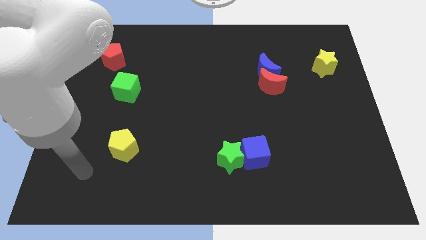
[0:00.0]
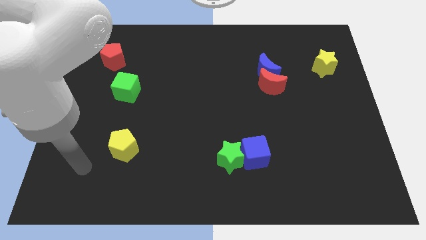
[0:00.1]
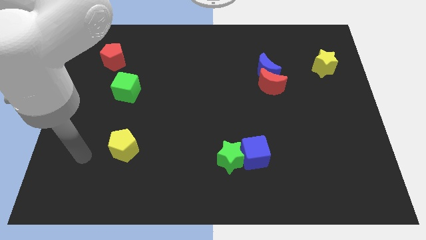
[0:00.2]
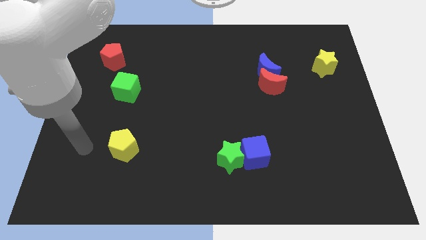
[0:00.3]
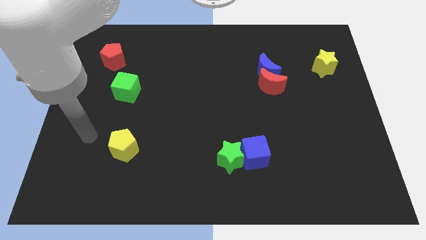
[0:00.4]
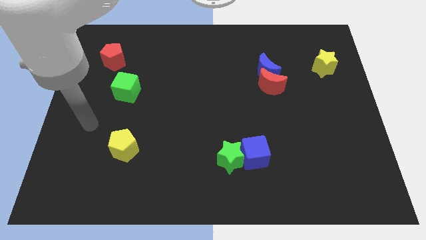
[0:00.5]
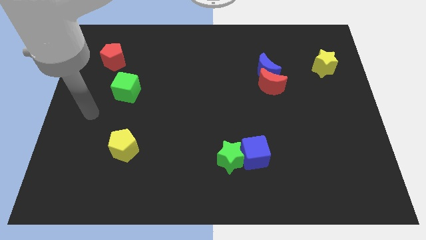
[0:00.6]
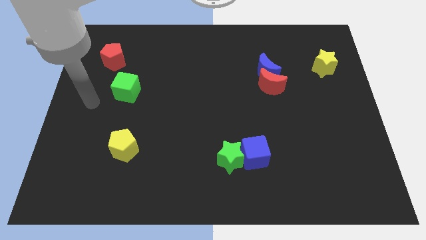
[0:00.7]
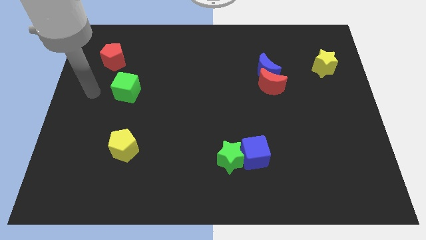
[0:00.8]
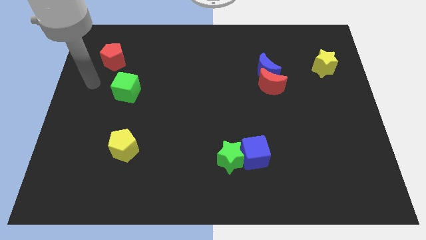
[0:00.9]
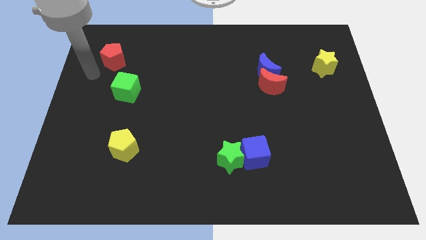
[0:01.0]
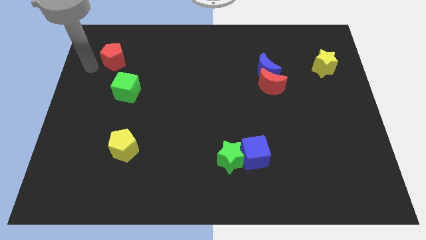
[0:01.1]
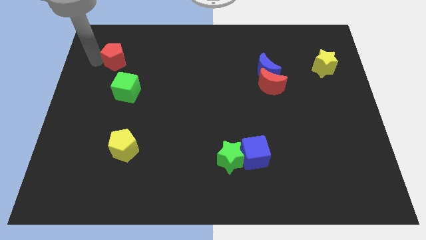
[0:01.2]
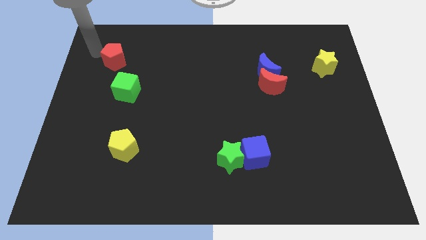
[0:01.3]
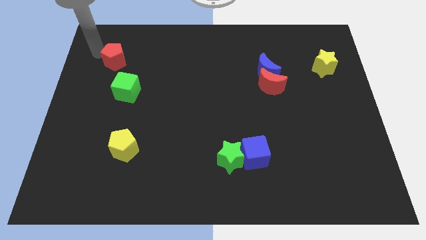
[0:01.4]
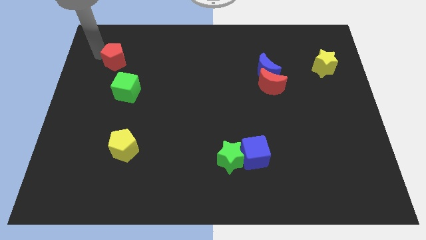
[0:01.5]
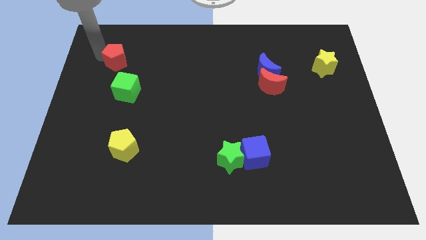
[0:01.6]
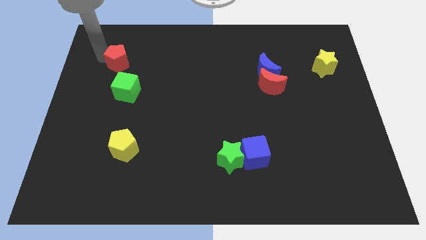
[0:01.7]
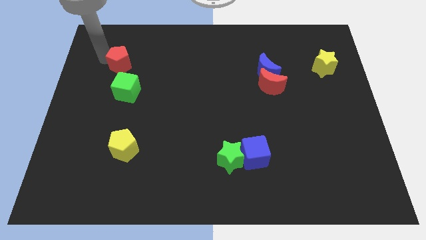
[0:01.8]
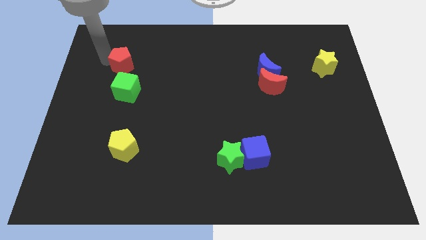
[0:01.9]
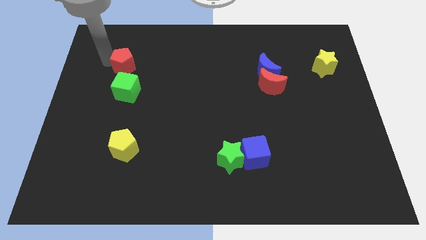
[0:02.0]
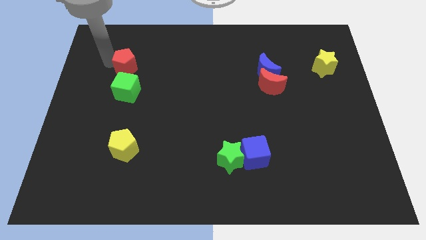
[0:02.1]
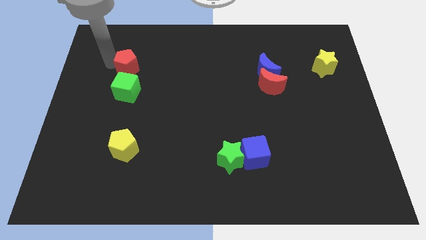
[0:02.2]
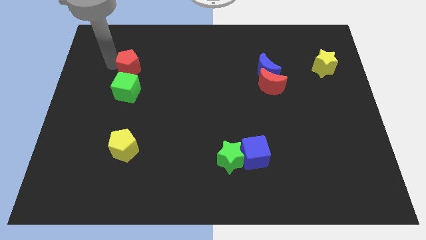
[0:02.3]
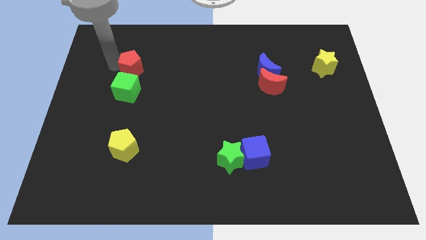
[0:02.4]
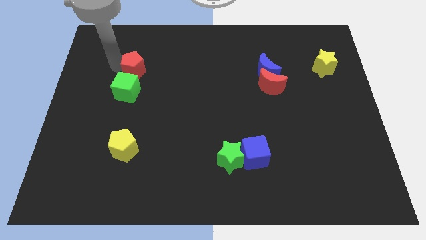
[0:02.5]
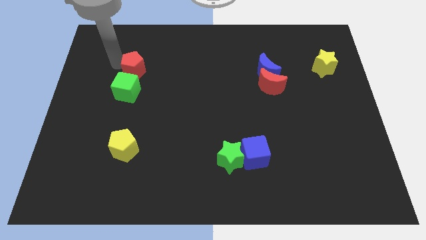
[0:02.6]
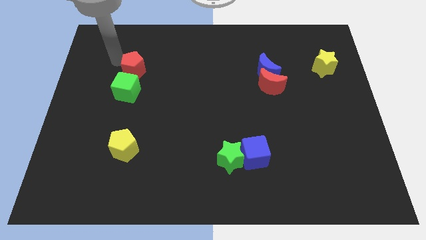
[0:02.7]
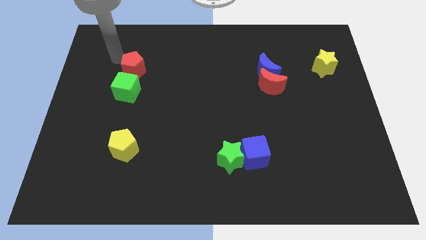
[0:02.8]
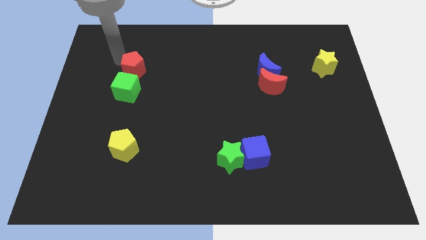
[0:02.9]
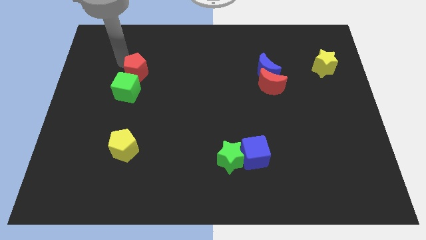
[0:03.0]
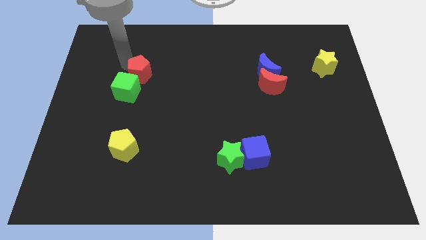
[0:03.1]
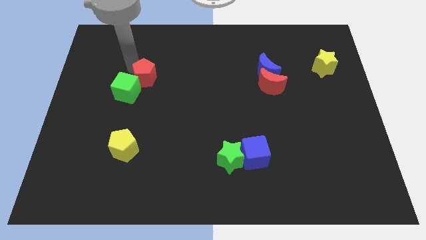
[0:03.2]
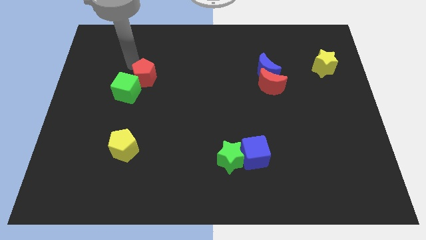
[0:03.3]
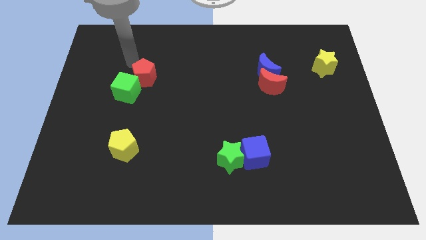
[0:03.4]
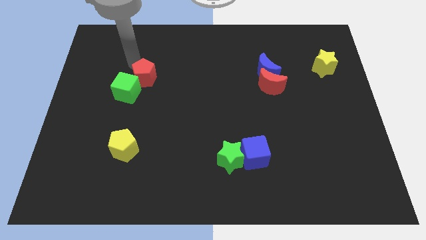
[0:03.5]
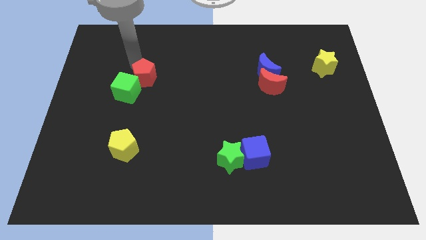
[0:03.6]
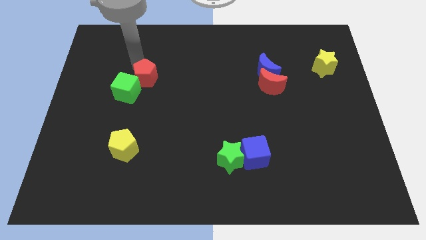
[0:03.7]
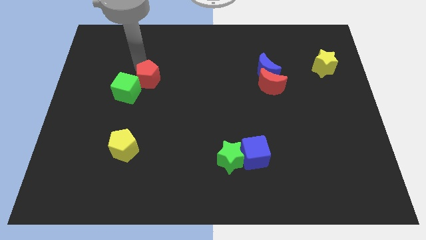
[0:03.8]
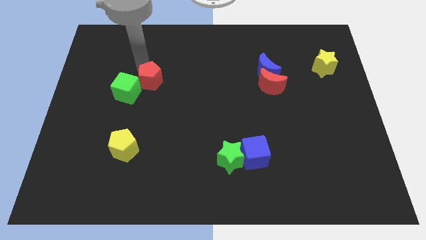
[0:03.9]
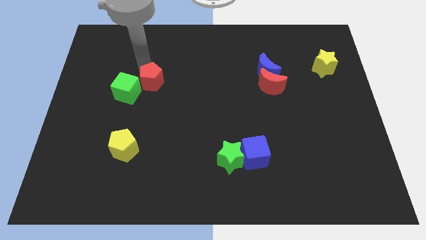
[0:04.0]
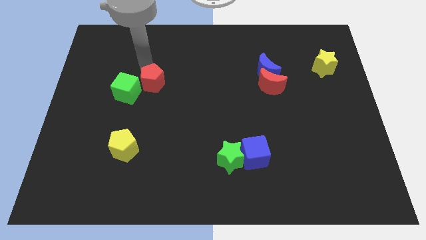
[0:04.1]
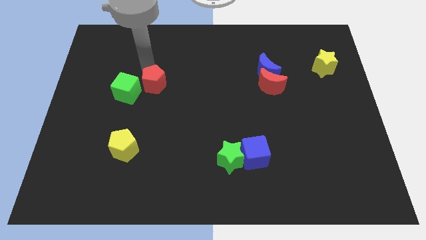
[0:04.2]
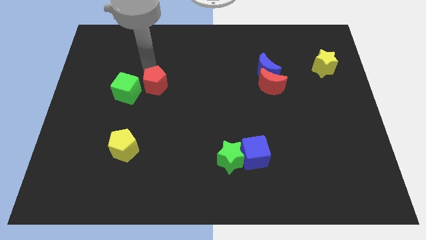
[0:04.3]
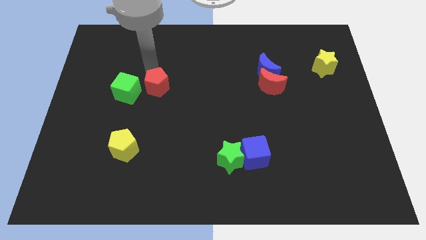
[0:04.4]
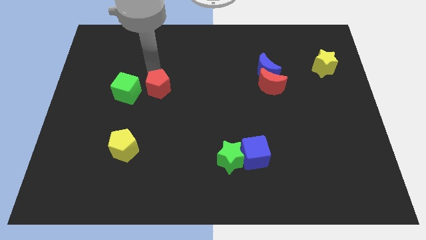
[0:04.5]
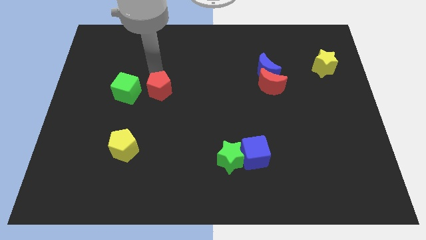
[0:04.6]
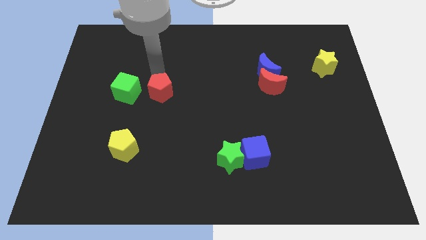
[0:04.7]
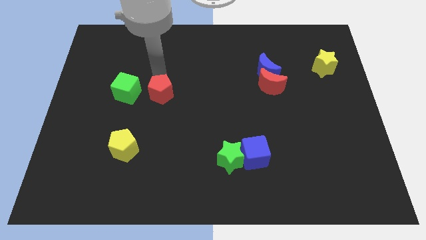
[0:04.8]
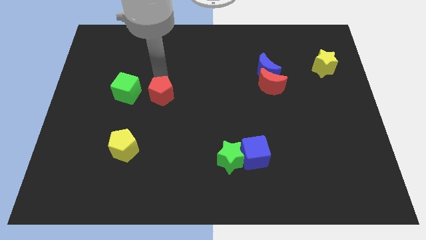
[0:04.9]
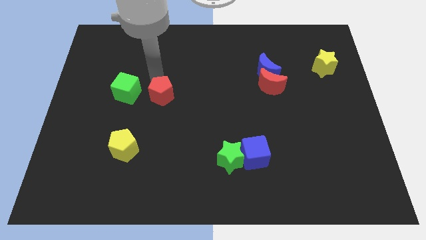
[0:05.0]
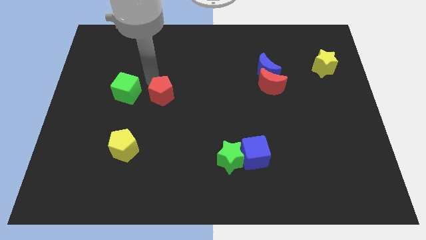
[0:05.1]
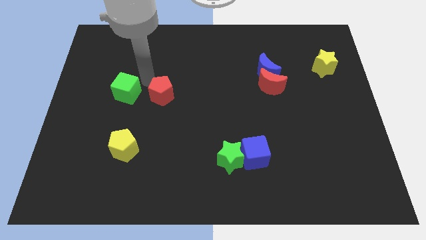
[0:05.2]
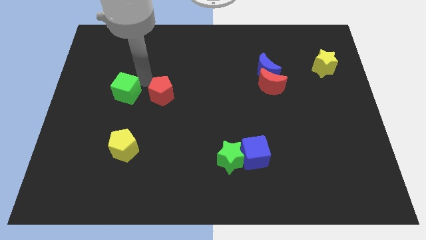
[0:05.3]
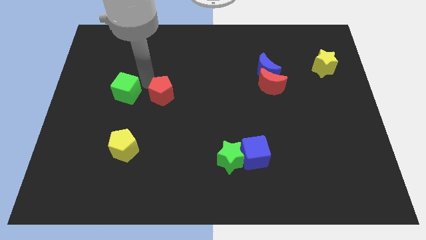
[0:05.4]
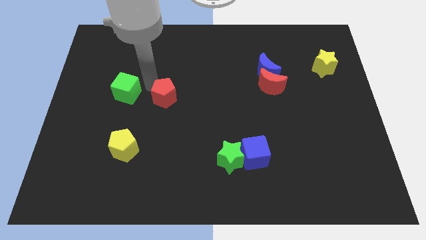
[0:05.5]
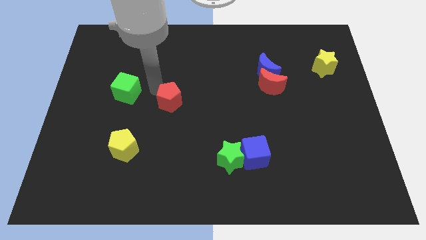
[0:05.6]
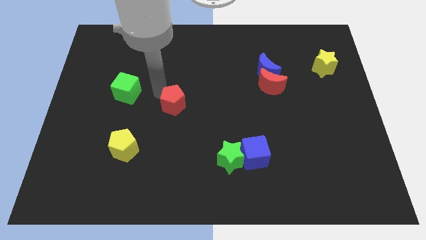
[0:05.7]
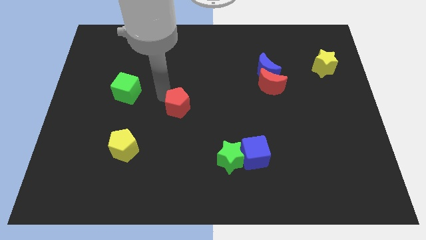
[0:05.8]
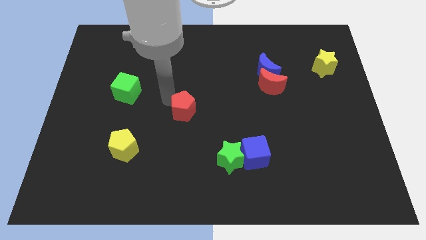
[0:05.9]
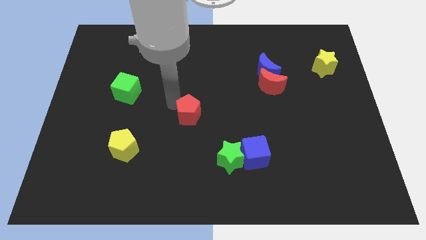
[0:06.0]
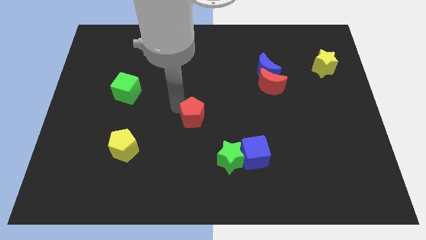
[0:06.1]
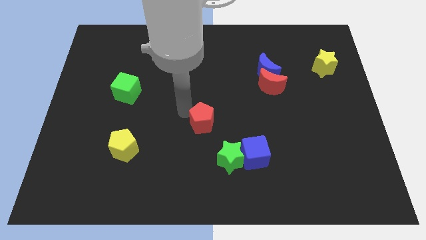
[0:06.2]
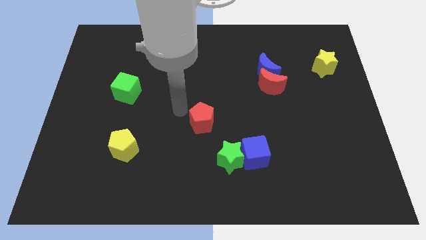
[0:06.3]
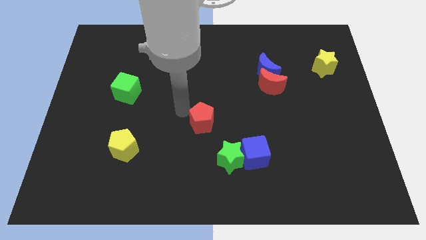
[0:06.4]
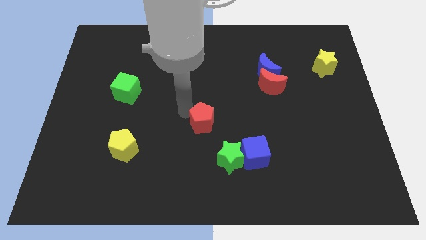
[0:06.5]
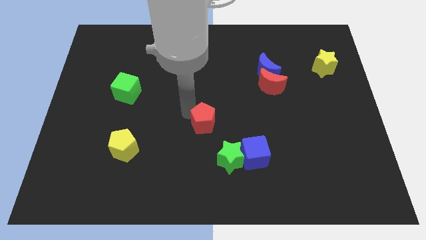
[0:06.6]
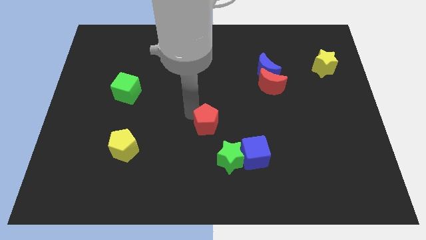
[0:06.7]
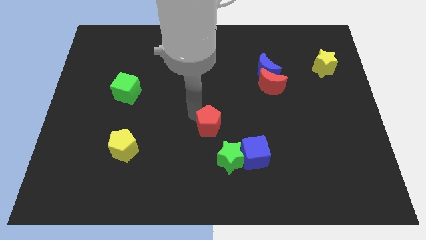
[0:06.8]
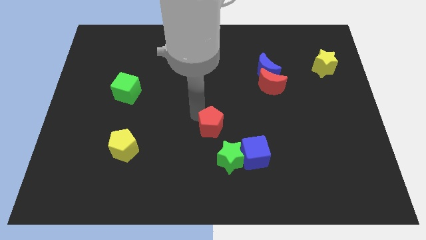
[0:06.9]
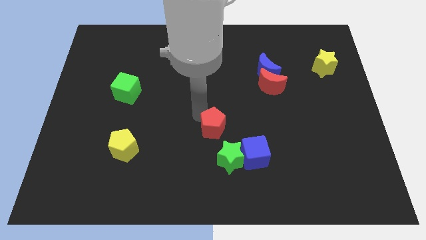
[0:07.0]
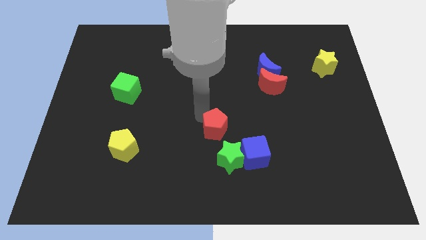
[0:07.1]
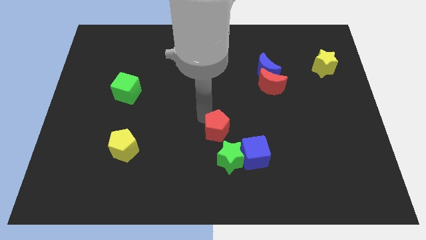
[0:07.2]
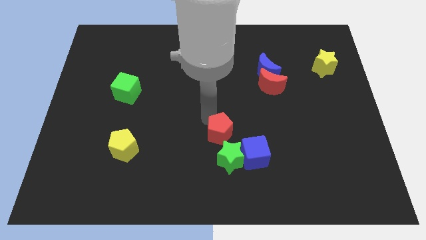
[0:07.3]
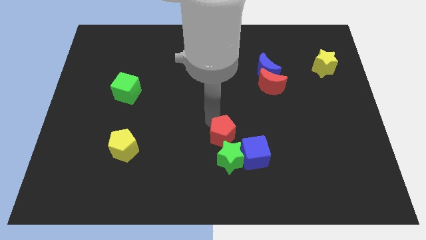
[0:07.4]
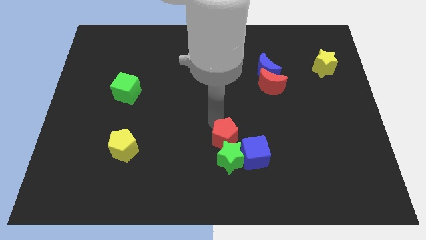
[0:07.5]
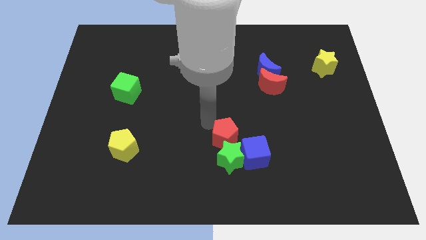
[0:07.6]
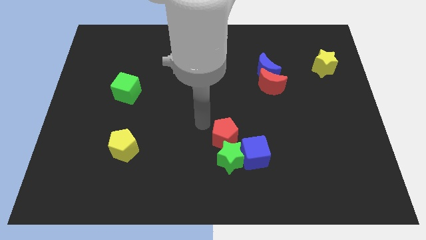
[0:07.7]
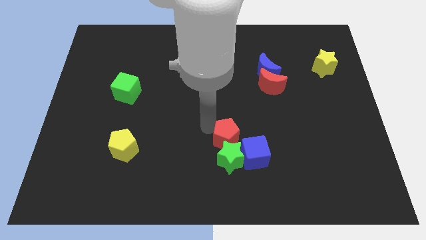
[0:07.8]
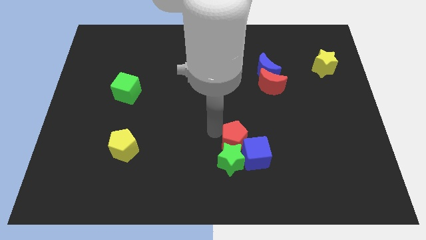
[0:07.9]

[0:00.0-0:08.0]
push the red pentagon towards the blue cube
